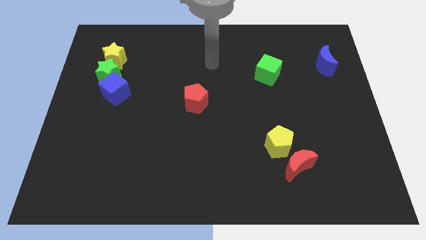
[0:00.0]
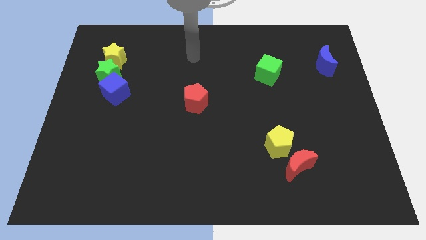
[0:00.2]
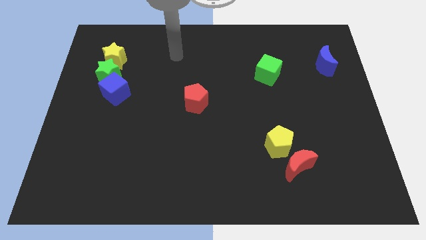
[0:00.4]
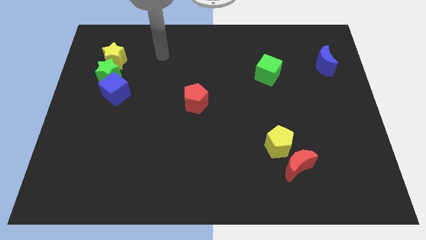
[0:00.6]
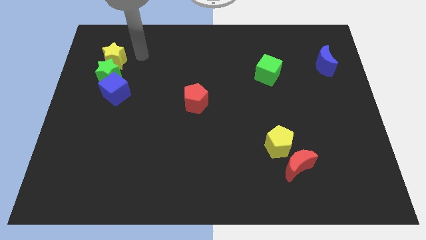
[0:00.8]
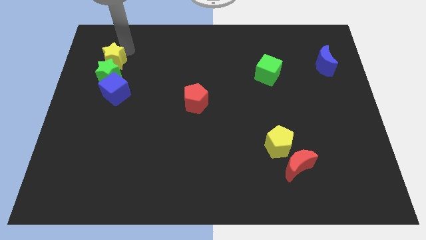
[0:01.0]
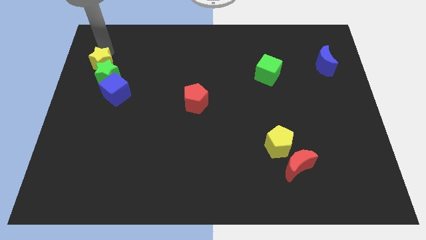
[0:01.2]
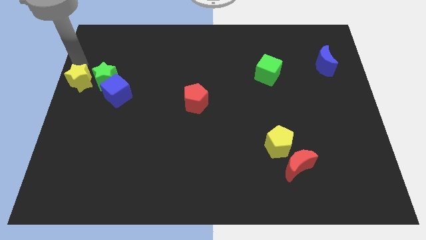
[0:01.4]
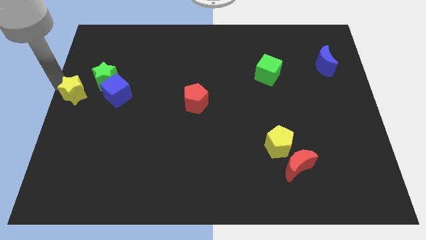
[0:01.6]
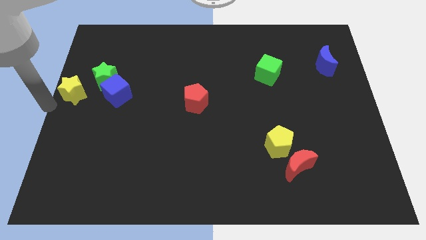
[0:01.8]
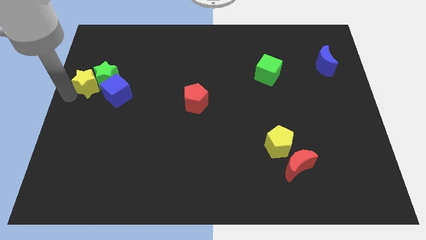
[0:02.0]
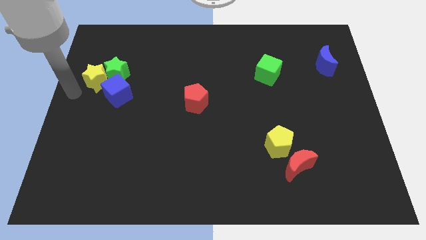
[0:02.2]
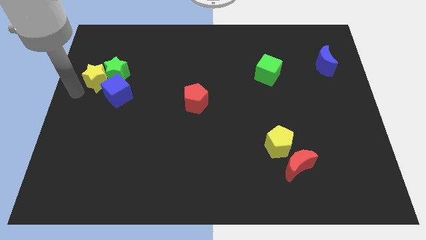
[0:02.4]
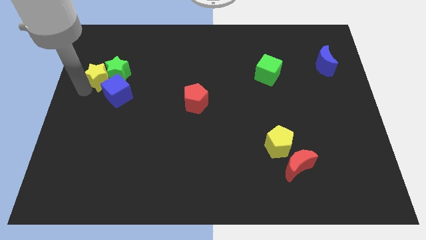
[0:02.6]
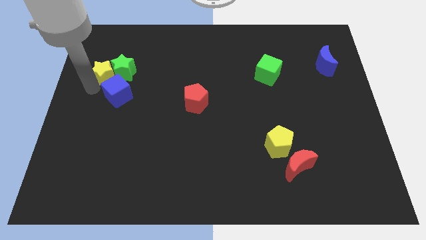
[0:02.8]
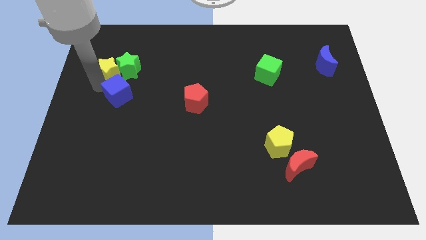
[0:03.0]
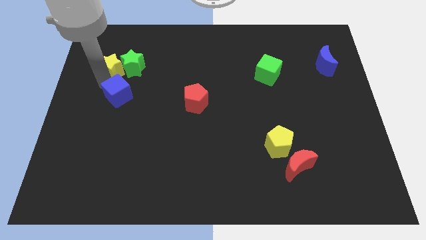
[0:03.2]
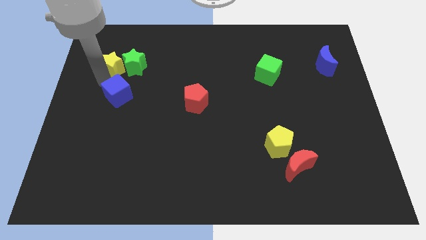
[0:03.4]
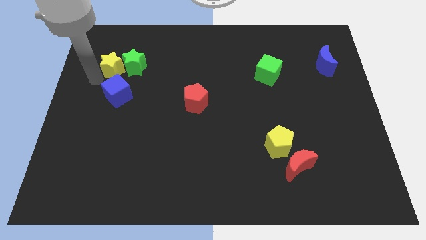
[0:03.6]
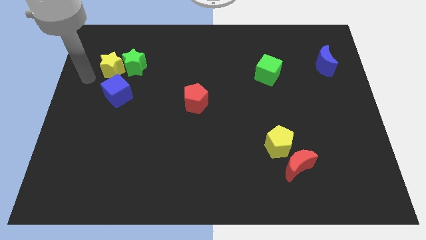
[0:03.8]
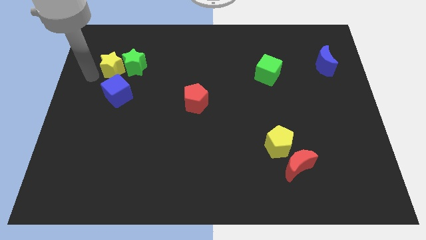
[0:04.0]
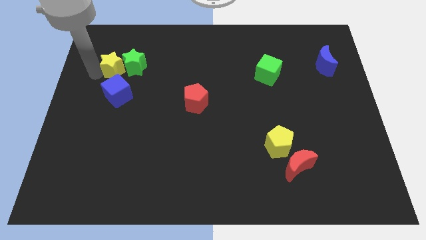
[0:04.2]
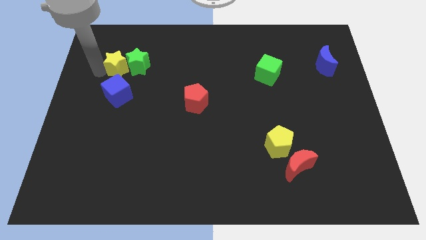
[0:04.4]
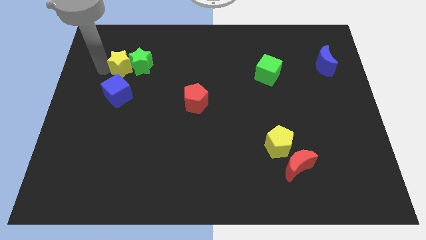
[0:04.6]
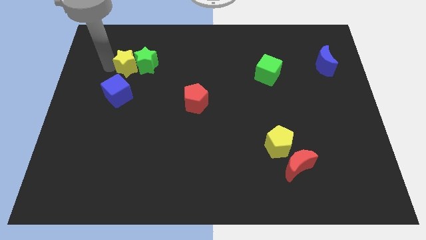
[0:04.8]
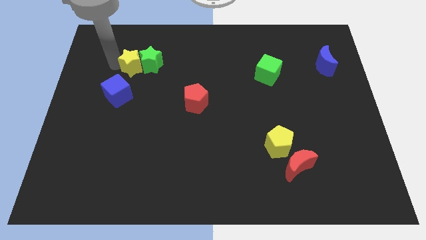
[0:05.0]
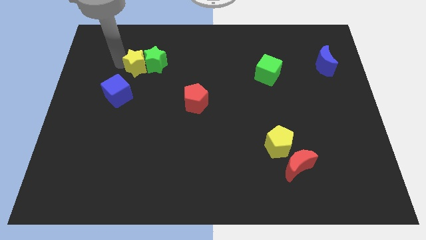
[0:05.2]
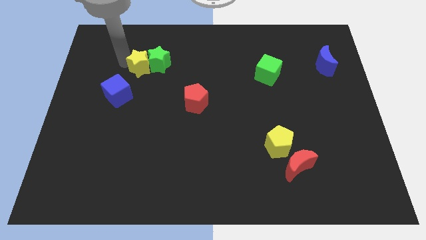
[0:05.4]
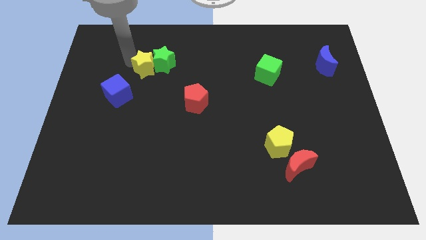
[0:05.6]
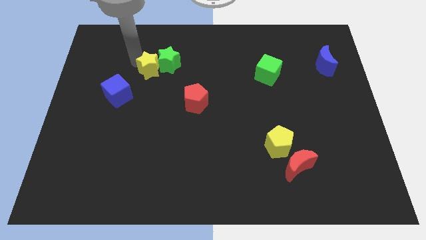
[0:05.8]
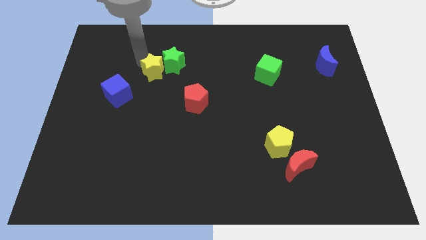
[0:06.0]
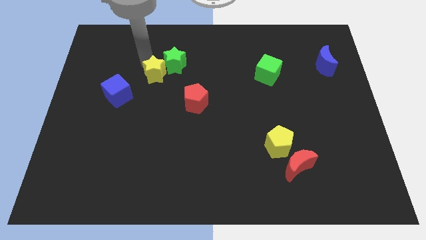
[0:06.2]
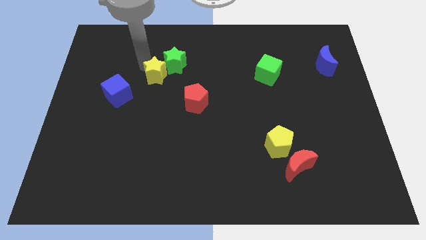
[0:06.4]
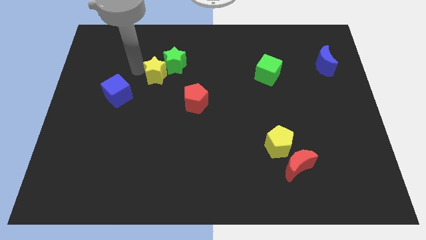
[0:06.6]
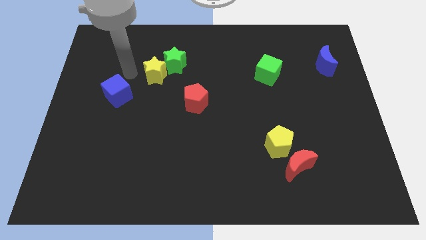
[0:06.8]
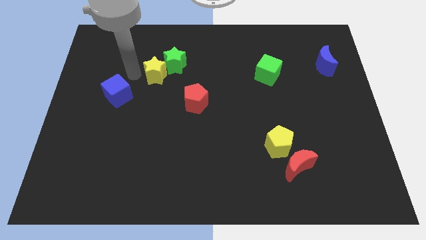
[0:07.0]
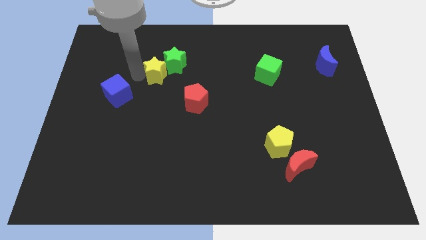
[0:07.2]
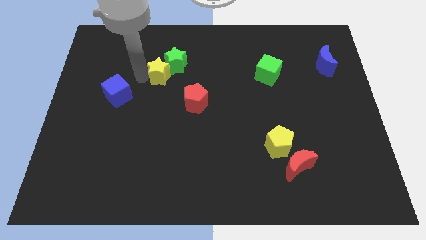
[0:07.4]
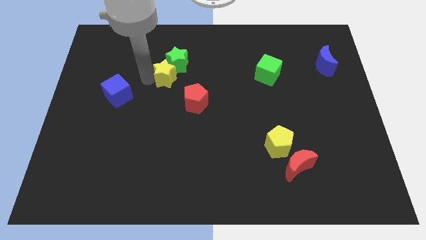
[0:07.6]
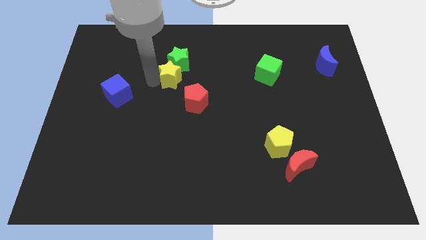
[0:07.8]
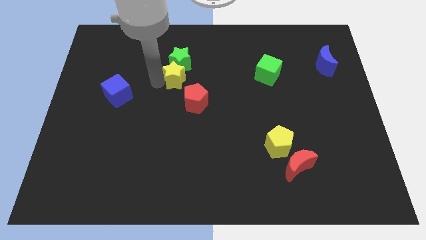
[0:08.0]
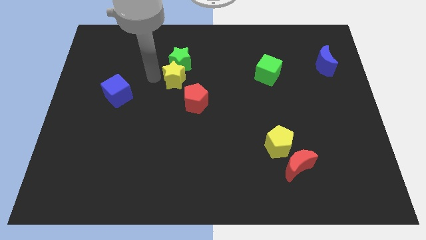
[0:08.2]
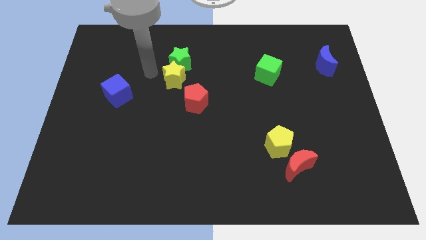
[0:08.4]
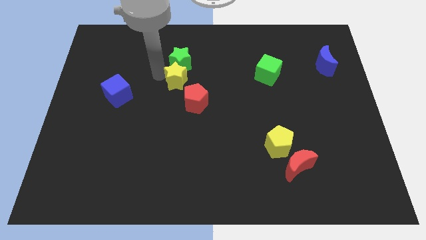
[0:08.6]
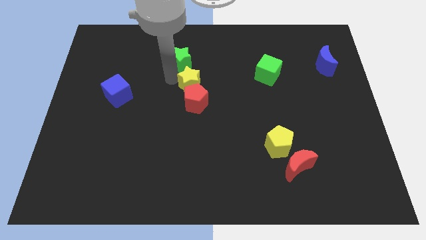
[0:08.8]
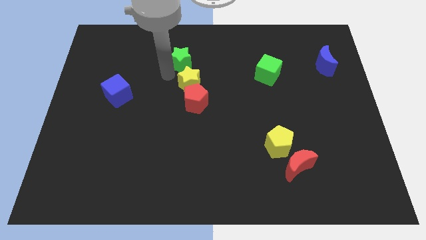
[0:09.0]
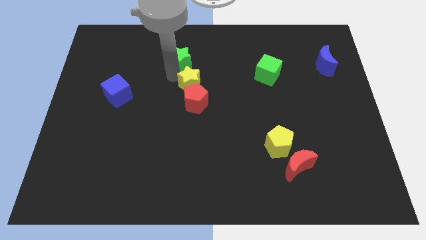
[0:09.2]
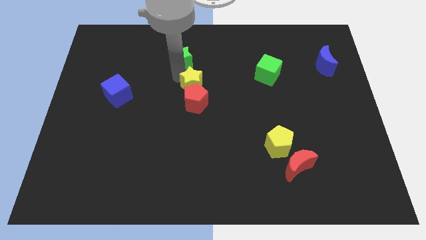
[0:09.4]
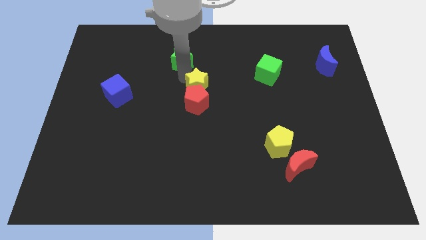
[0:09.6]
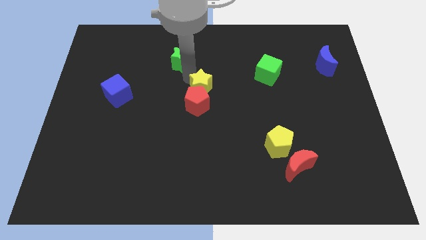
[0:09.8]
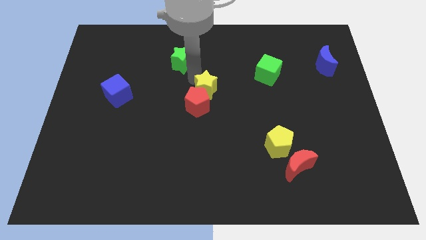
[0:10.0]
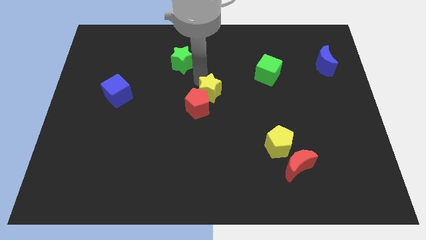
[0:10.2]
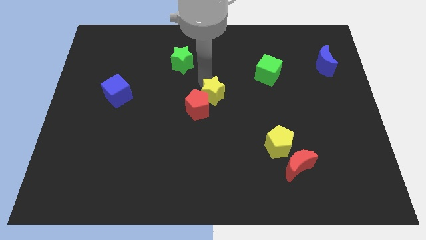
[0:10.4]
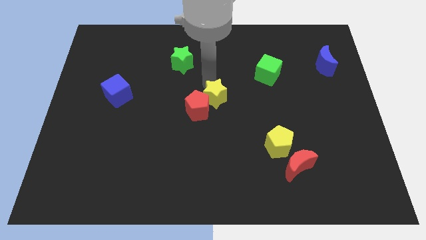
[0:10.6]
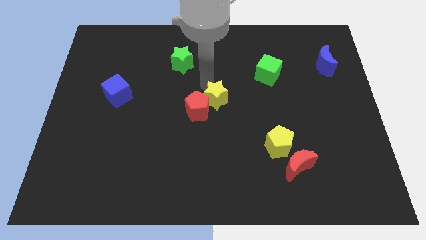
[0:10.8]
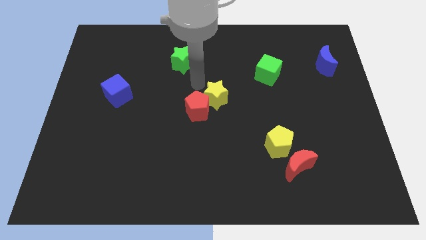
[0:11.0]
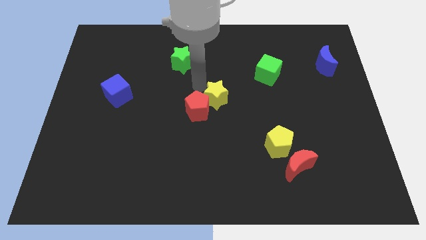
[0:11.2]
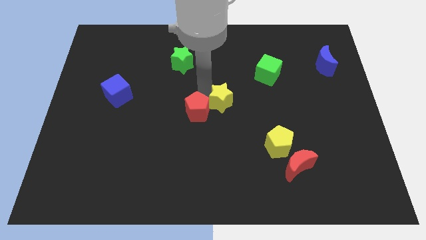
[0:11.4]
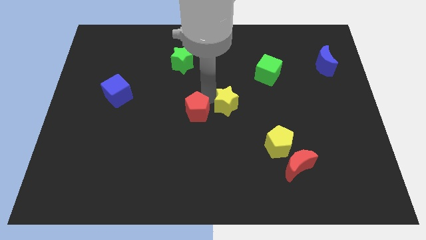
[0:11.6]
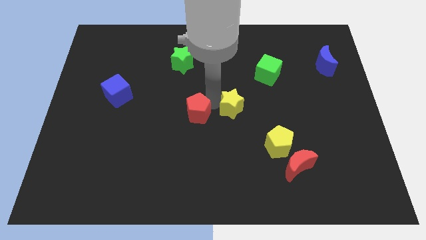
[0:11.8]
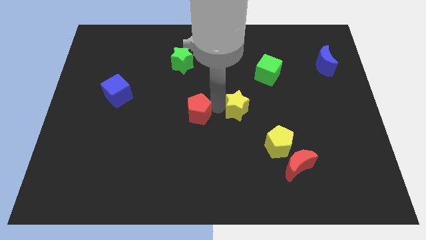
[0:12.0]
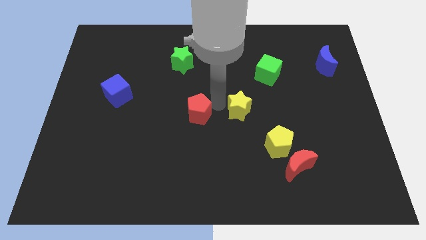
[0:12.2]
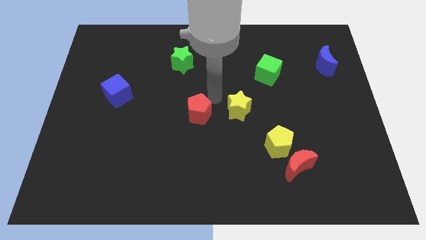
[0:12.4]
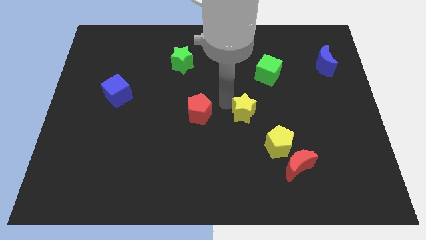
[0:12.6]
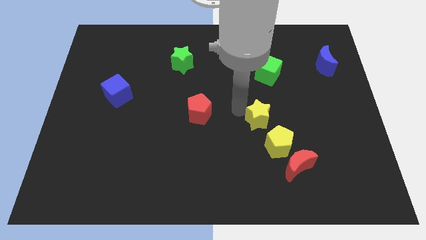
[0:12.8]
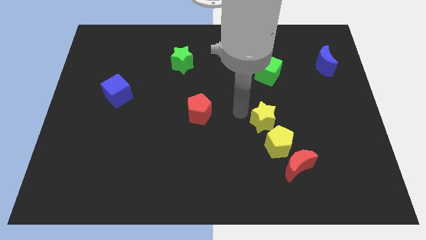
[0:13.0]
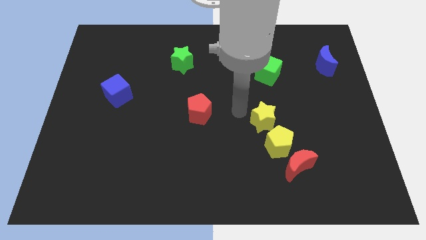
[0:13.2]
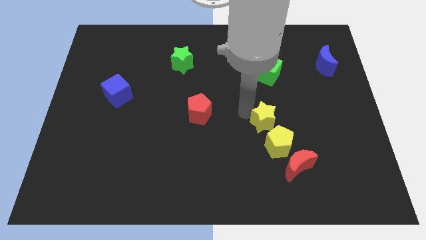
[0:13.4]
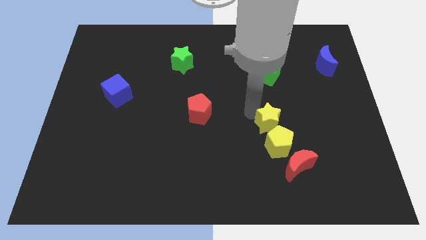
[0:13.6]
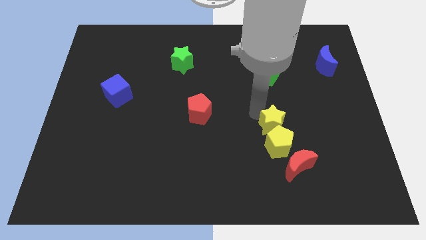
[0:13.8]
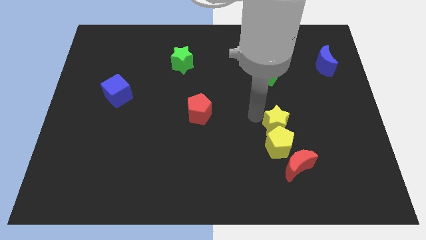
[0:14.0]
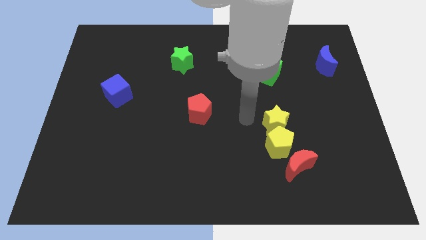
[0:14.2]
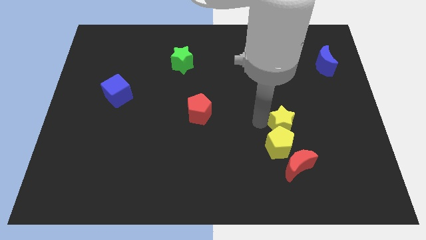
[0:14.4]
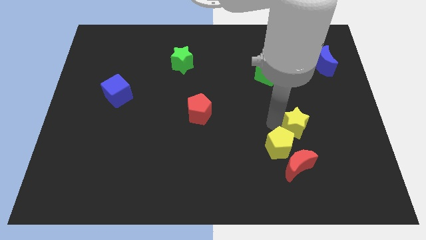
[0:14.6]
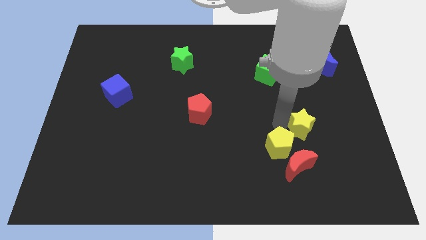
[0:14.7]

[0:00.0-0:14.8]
move the yellow star to the right side of the yellow pentagon

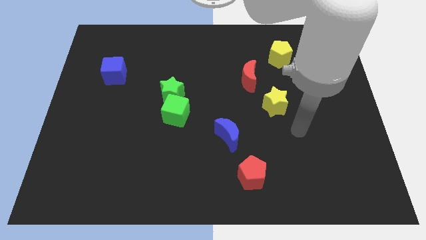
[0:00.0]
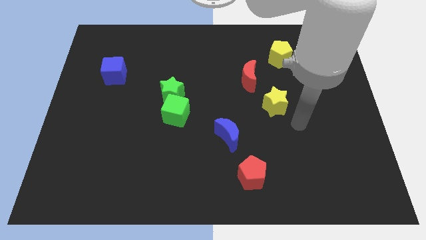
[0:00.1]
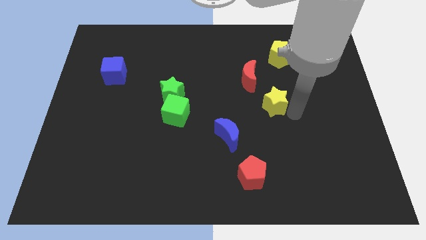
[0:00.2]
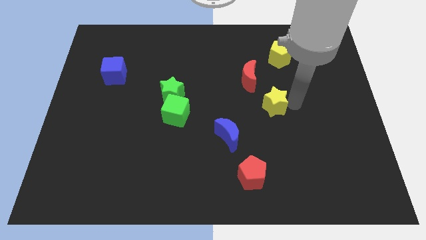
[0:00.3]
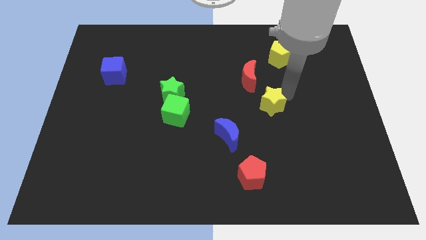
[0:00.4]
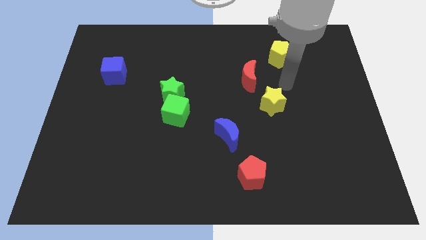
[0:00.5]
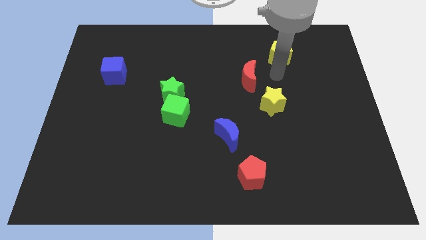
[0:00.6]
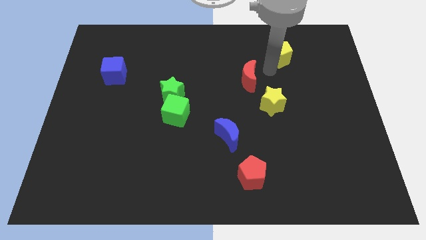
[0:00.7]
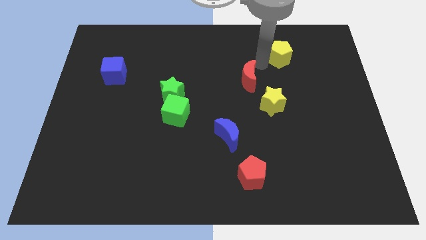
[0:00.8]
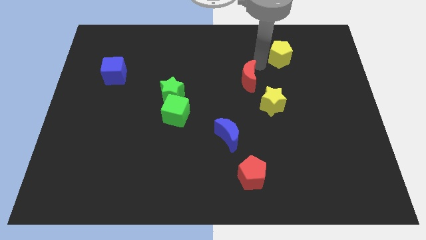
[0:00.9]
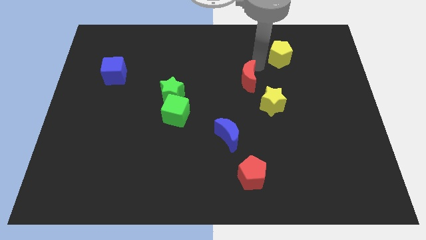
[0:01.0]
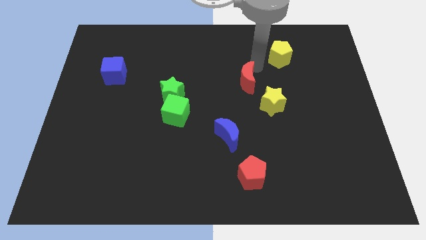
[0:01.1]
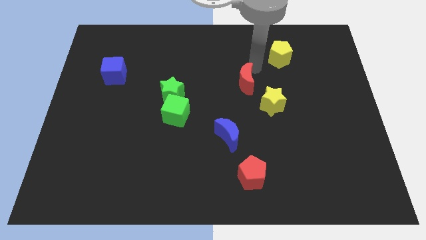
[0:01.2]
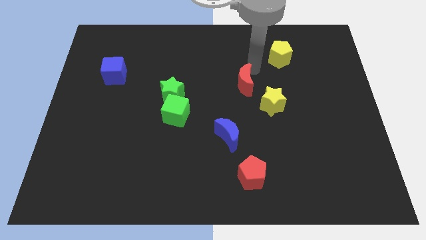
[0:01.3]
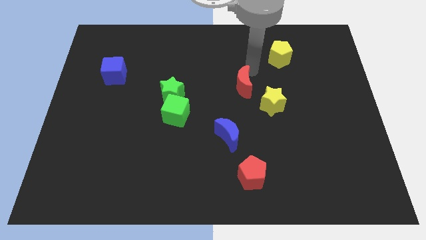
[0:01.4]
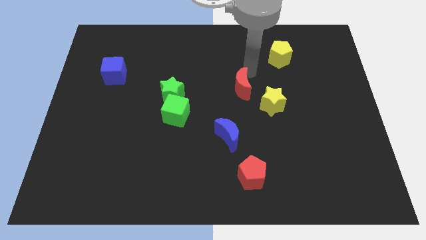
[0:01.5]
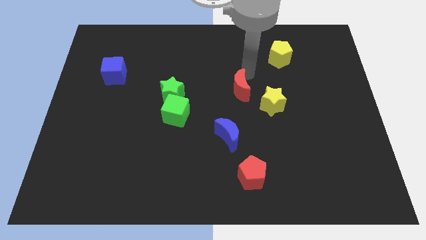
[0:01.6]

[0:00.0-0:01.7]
push the red moon to the left side of the yellow star
